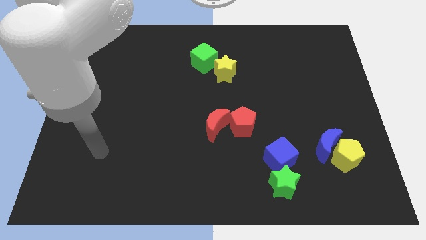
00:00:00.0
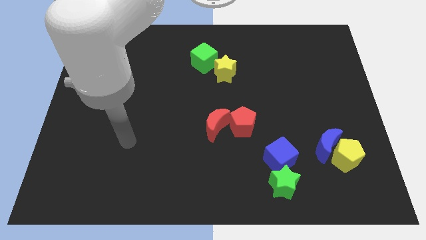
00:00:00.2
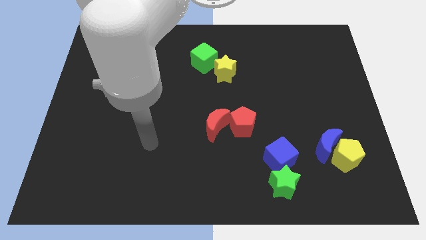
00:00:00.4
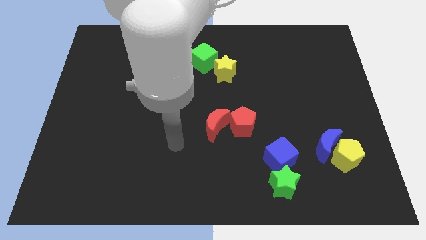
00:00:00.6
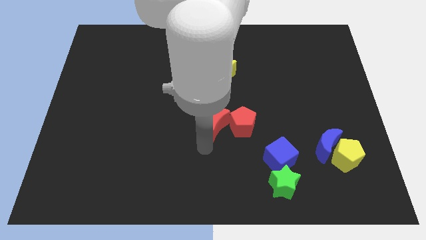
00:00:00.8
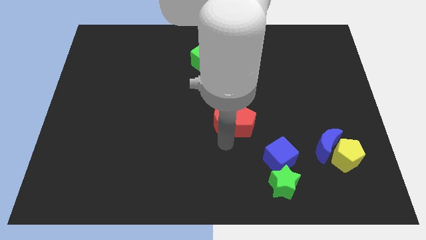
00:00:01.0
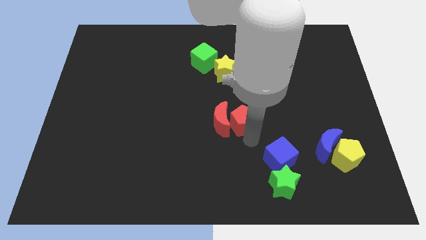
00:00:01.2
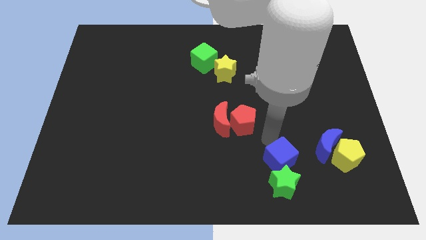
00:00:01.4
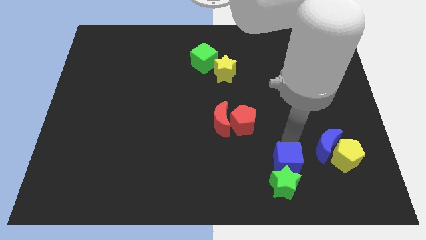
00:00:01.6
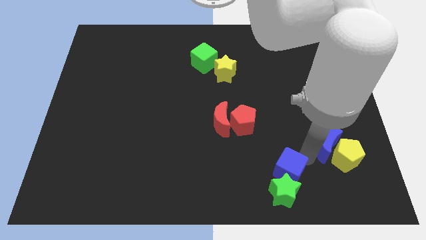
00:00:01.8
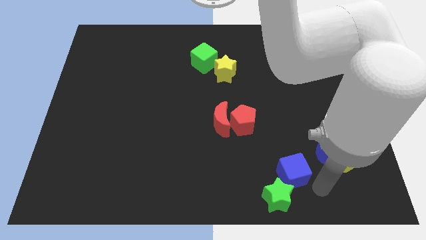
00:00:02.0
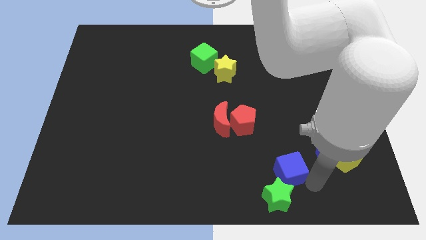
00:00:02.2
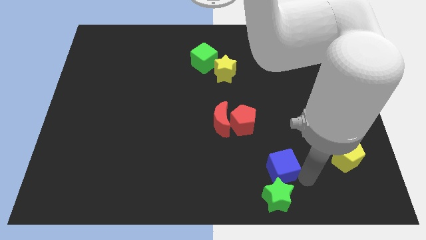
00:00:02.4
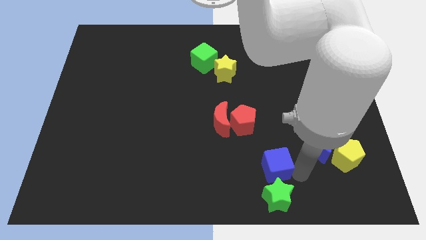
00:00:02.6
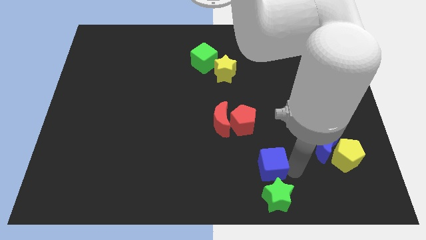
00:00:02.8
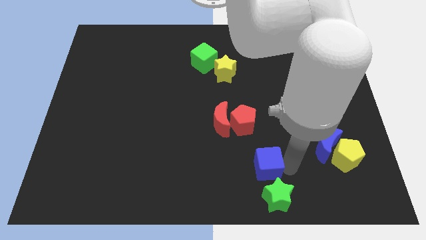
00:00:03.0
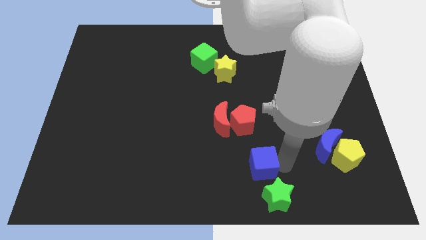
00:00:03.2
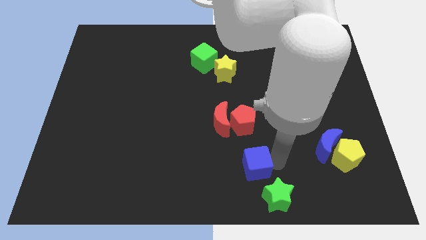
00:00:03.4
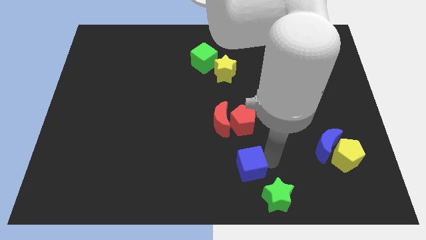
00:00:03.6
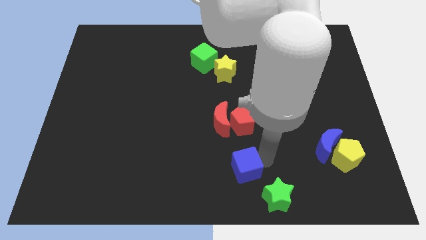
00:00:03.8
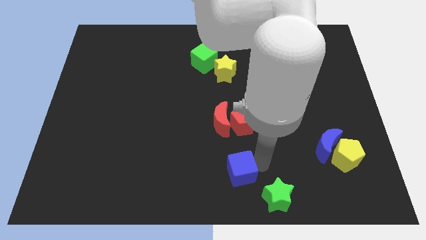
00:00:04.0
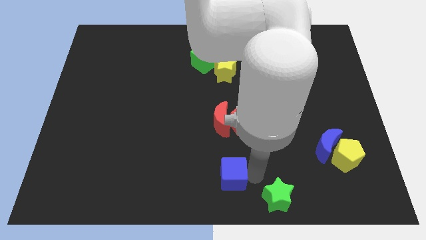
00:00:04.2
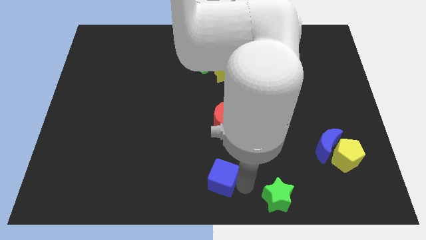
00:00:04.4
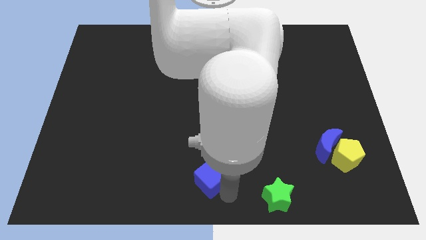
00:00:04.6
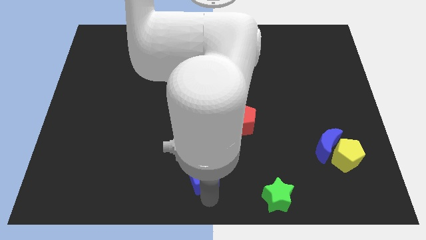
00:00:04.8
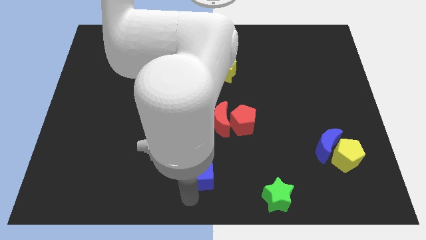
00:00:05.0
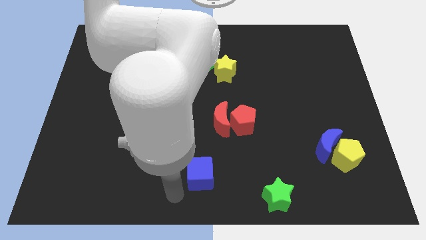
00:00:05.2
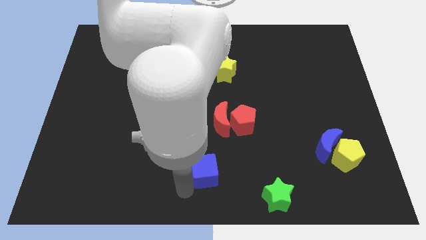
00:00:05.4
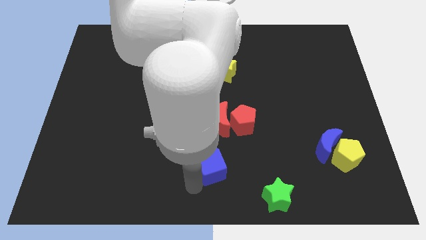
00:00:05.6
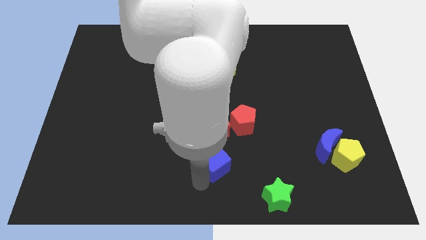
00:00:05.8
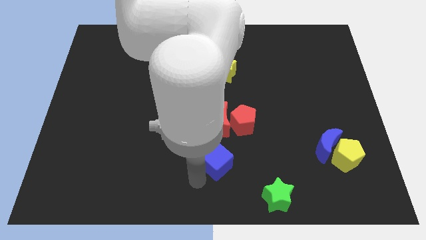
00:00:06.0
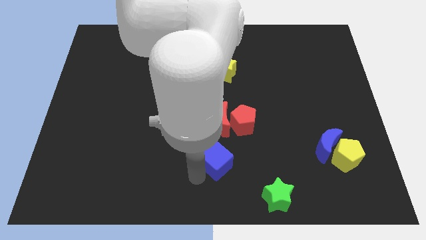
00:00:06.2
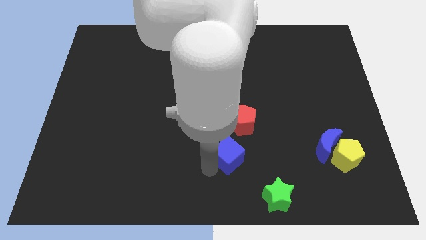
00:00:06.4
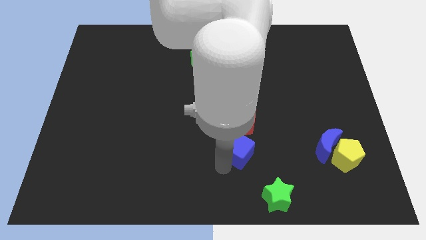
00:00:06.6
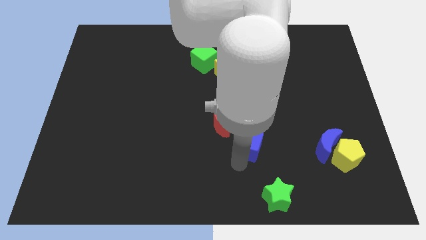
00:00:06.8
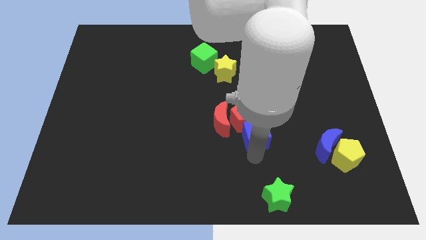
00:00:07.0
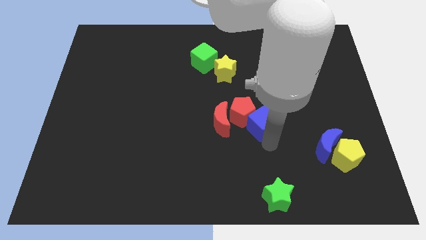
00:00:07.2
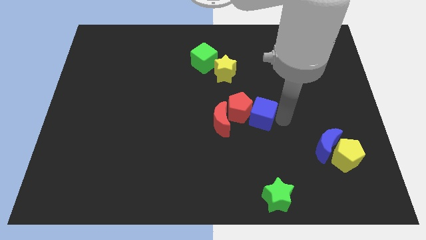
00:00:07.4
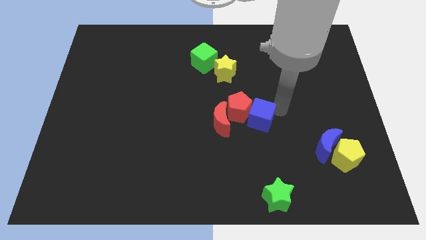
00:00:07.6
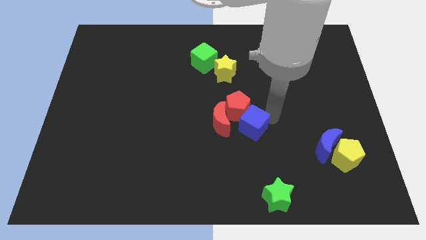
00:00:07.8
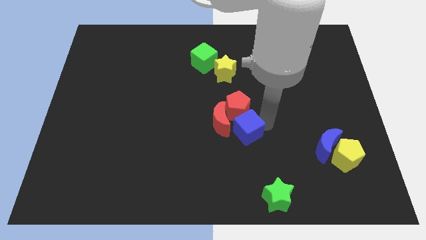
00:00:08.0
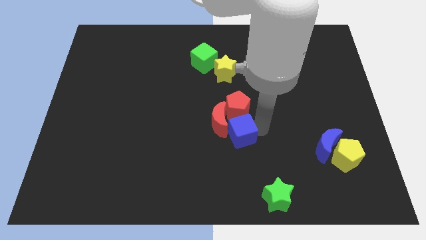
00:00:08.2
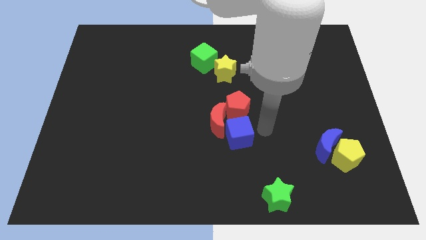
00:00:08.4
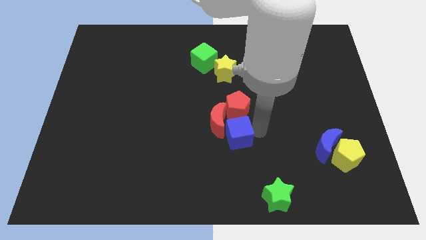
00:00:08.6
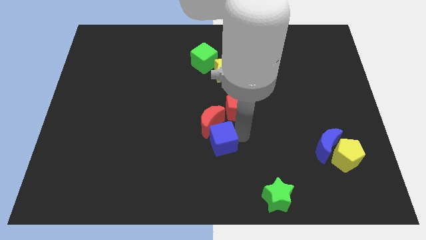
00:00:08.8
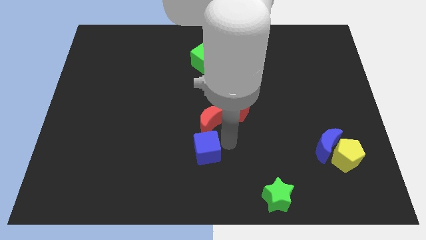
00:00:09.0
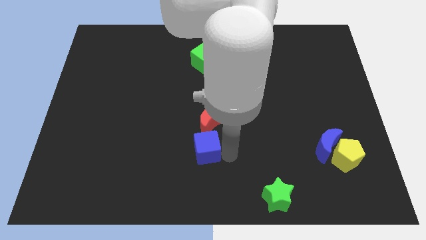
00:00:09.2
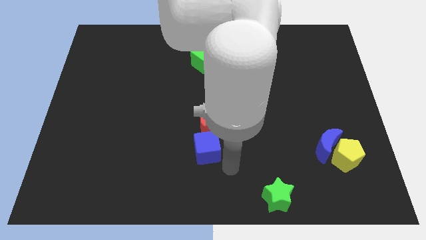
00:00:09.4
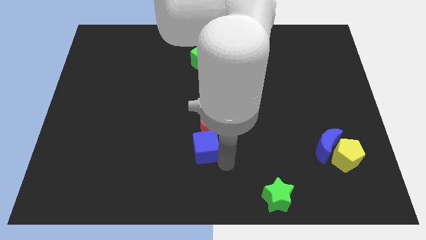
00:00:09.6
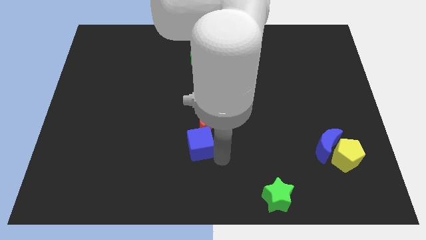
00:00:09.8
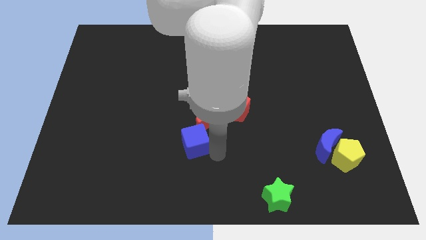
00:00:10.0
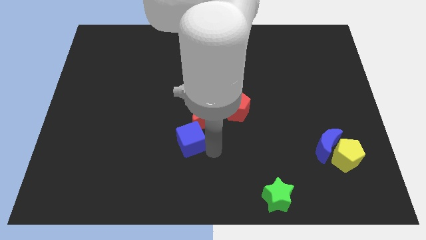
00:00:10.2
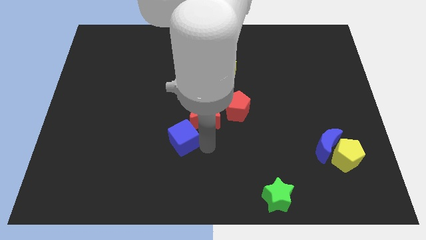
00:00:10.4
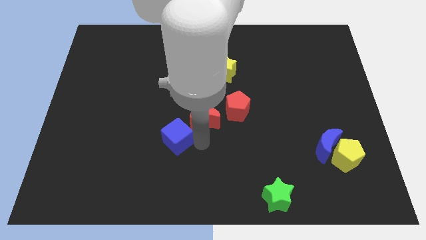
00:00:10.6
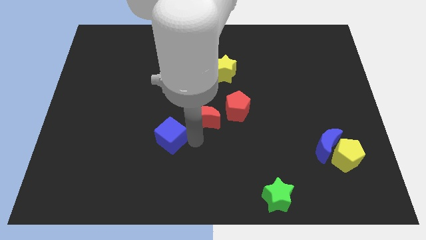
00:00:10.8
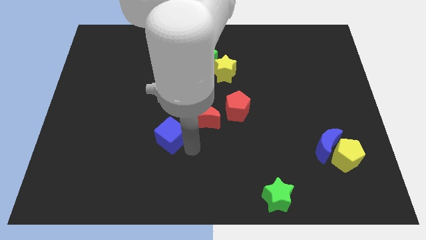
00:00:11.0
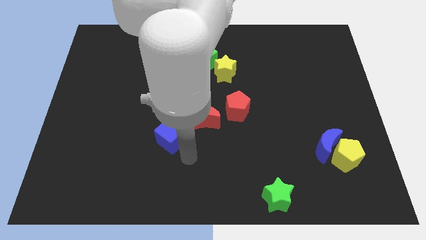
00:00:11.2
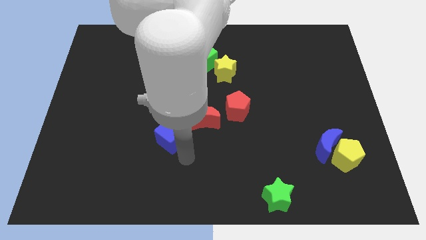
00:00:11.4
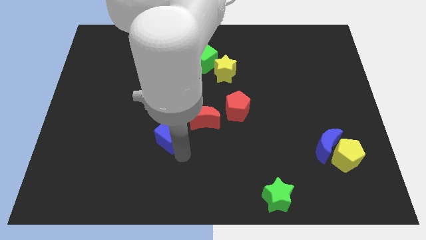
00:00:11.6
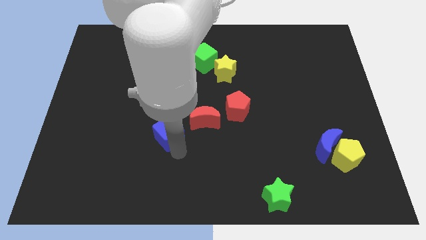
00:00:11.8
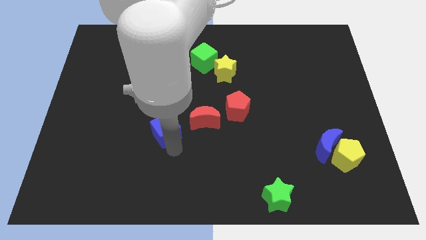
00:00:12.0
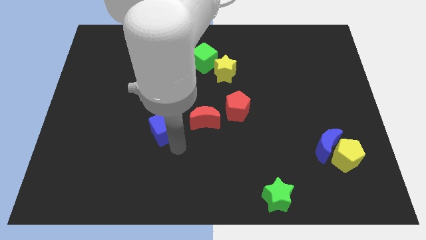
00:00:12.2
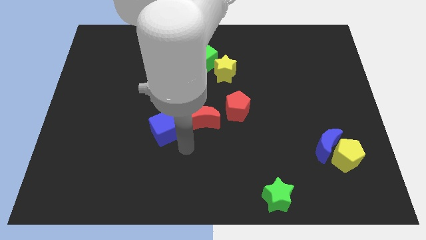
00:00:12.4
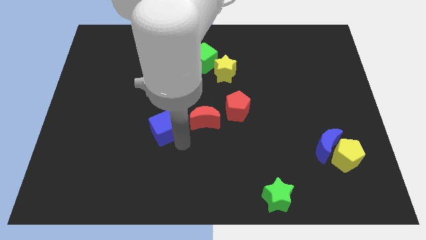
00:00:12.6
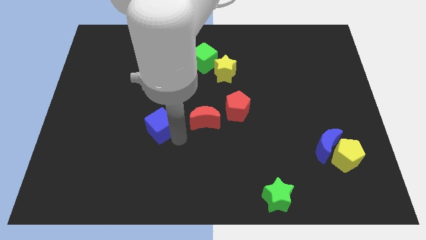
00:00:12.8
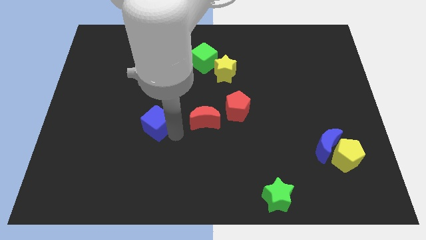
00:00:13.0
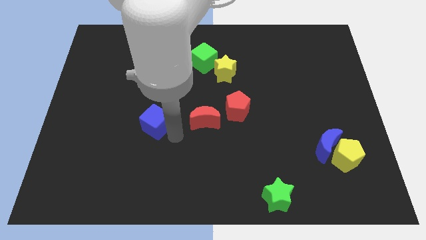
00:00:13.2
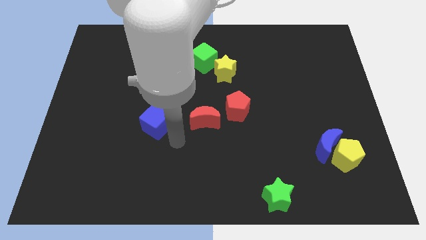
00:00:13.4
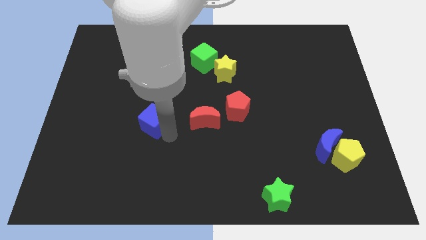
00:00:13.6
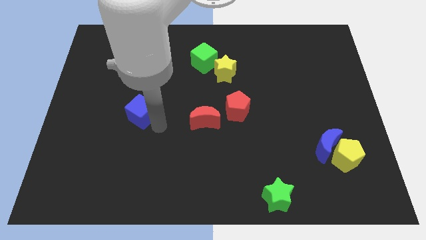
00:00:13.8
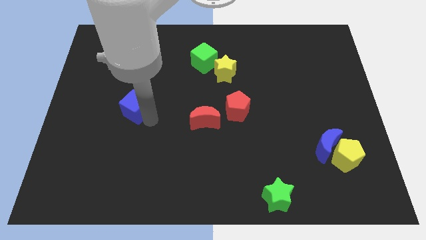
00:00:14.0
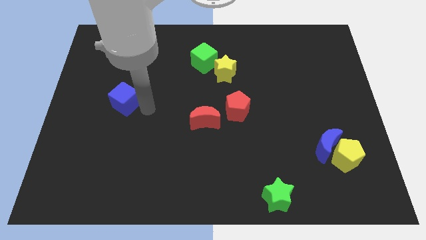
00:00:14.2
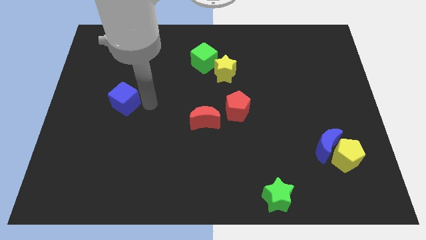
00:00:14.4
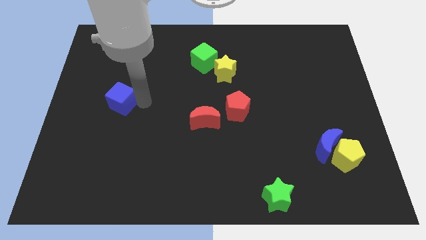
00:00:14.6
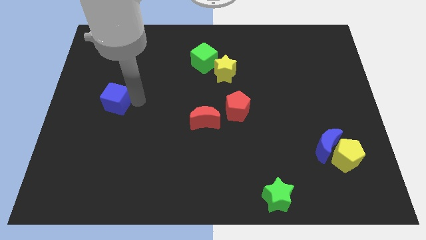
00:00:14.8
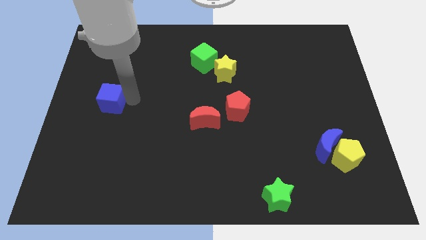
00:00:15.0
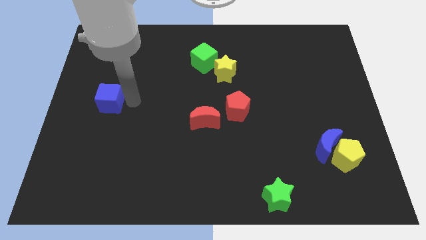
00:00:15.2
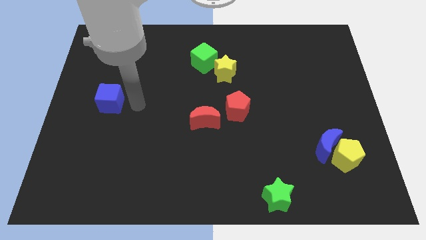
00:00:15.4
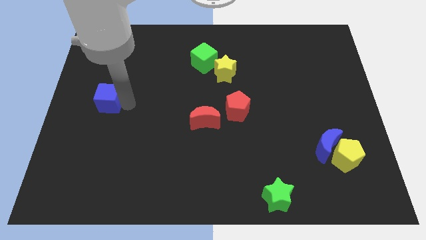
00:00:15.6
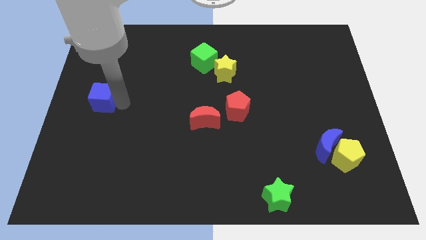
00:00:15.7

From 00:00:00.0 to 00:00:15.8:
move the blue cube to the left side of the board

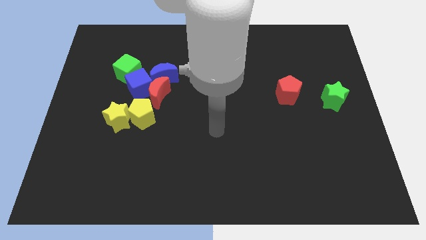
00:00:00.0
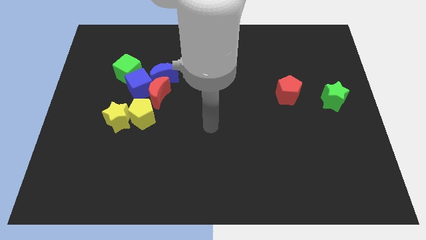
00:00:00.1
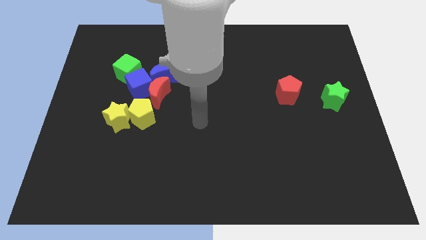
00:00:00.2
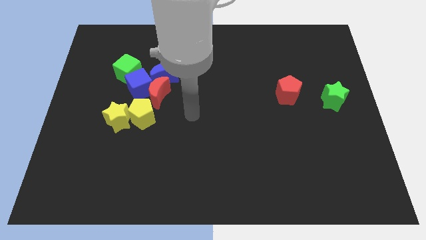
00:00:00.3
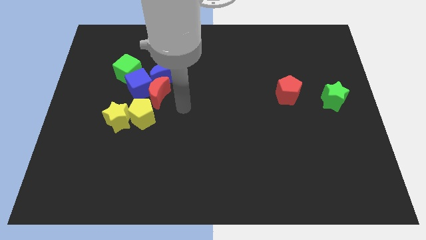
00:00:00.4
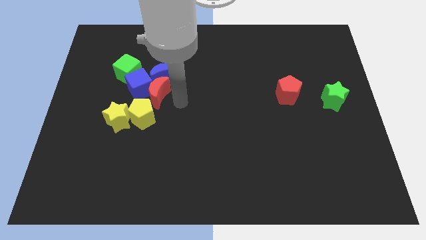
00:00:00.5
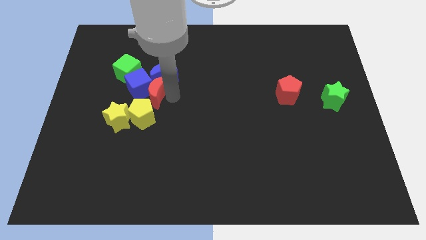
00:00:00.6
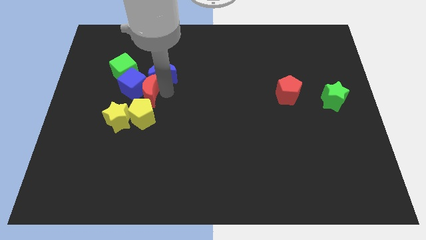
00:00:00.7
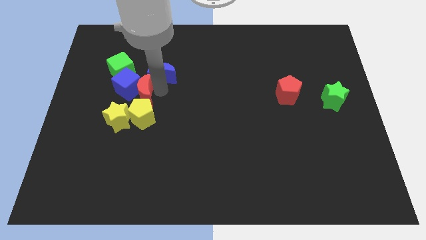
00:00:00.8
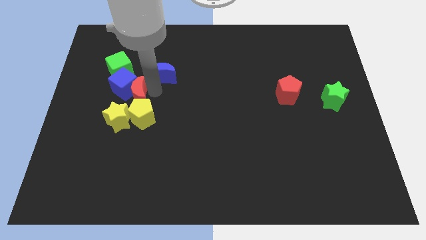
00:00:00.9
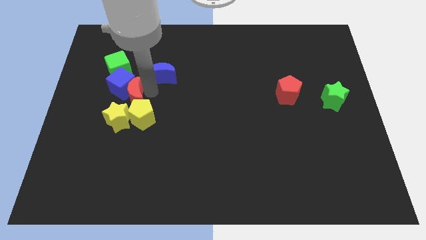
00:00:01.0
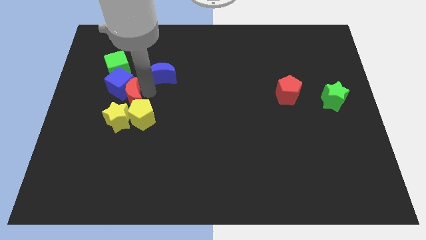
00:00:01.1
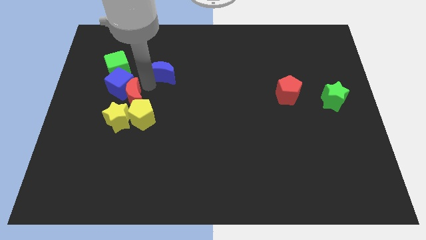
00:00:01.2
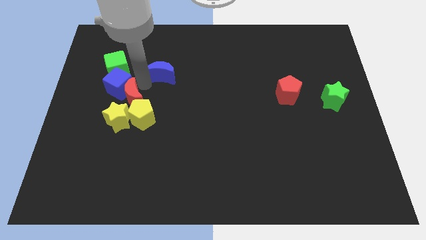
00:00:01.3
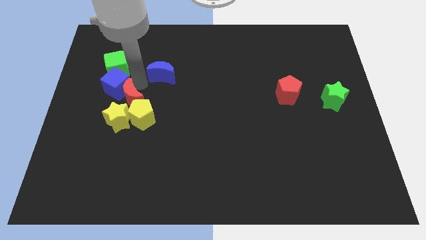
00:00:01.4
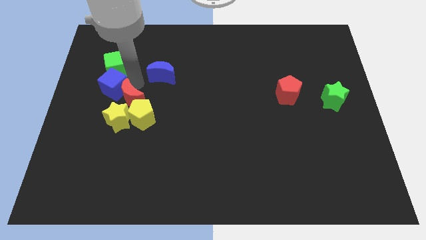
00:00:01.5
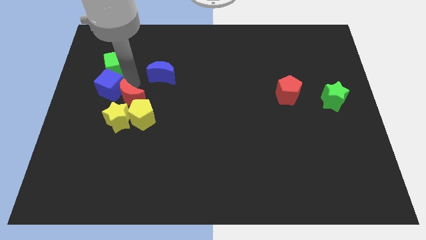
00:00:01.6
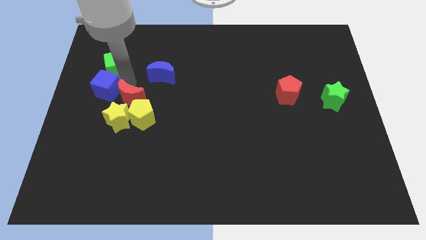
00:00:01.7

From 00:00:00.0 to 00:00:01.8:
slide the blue cube to the left side of the board
